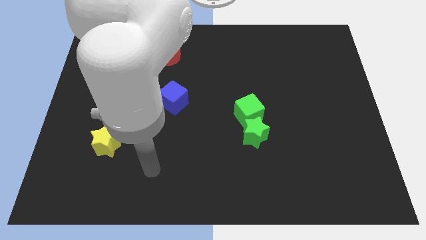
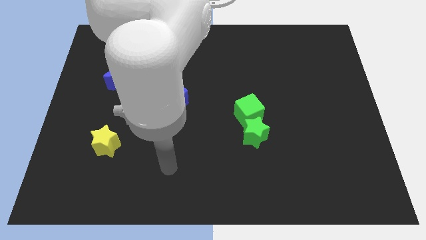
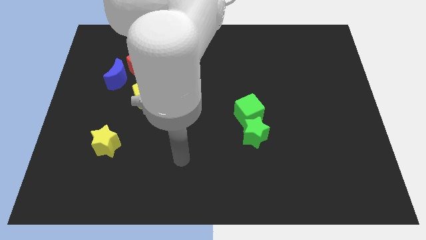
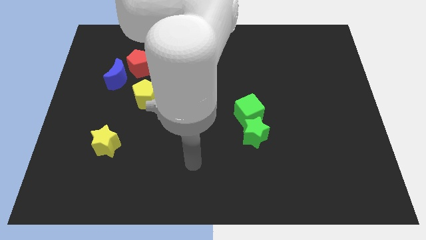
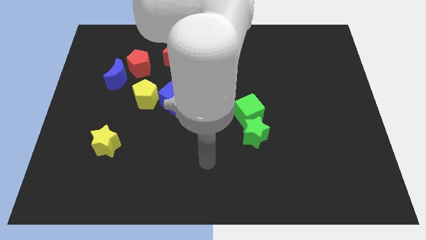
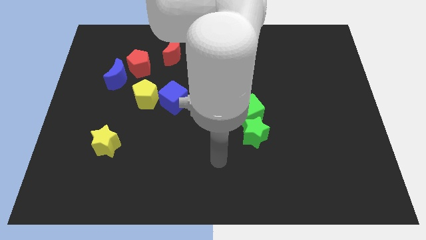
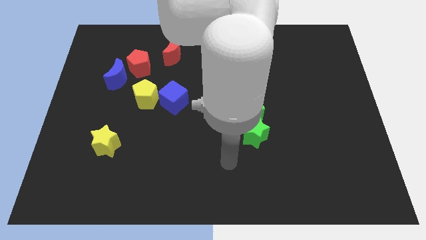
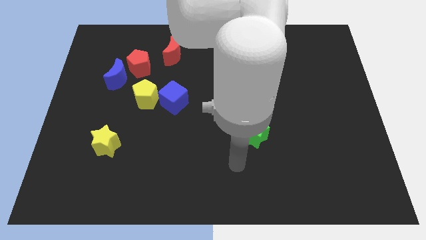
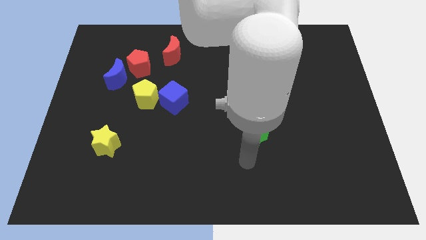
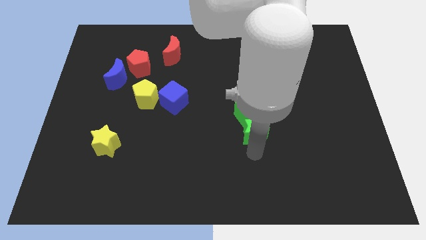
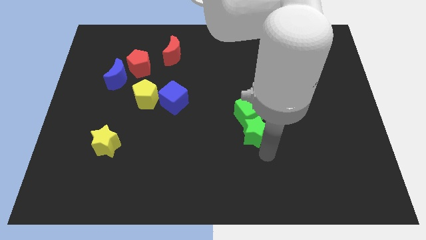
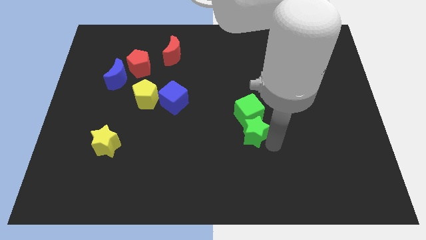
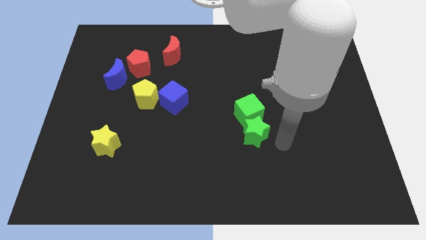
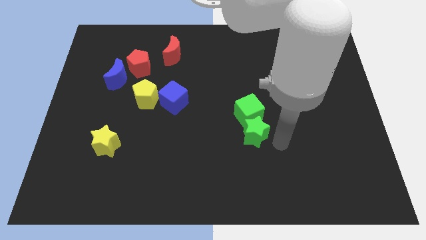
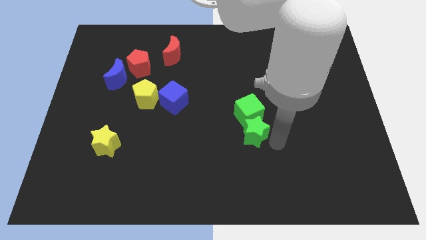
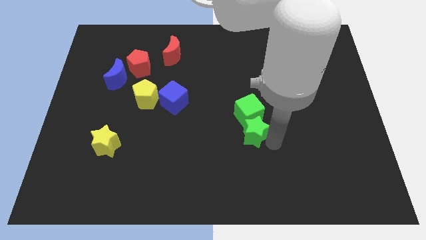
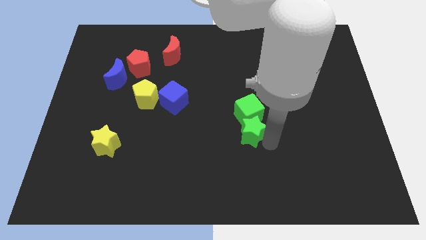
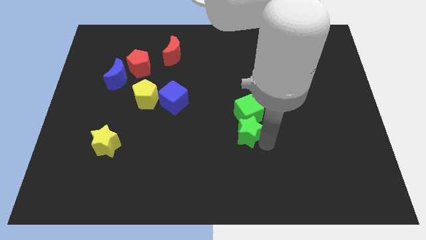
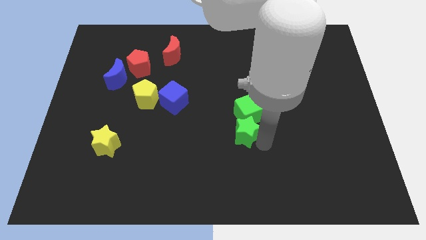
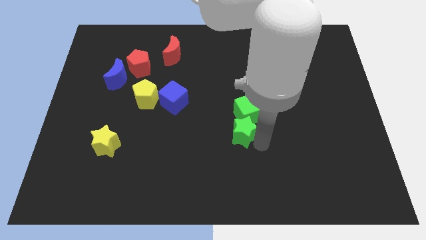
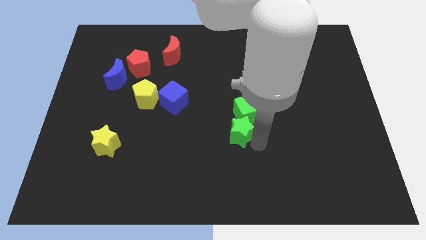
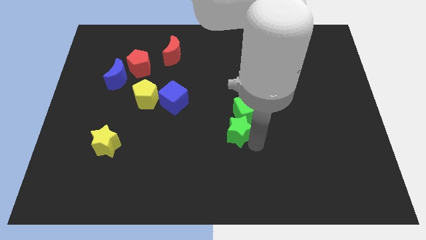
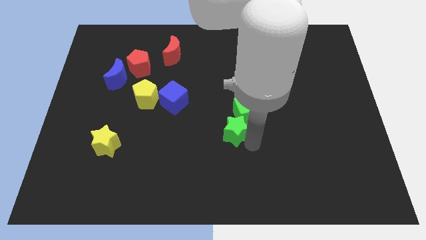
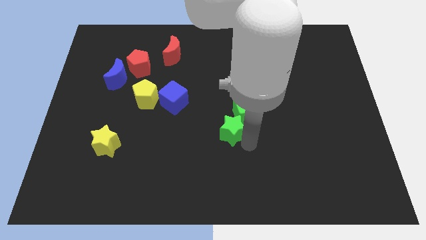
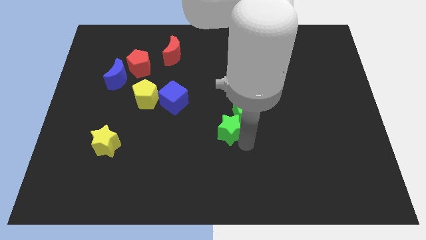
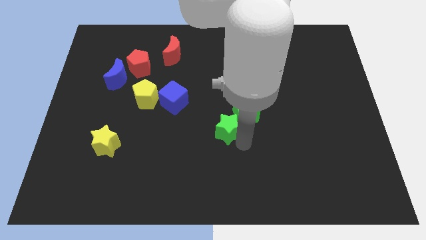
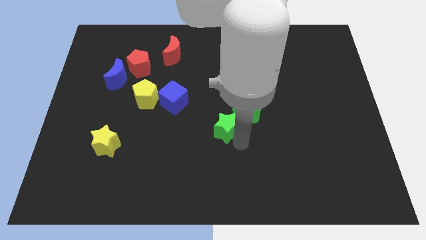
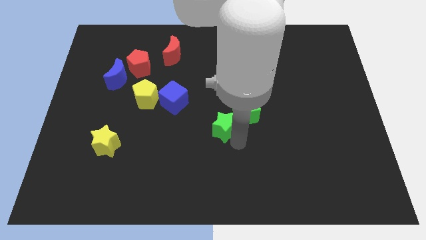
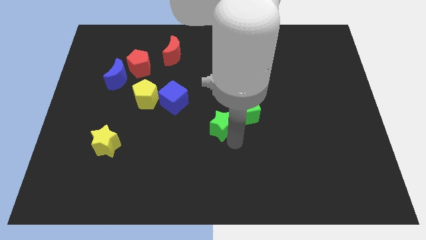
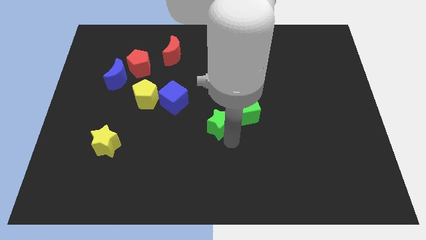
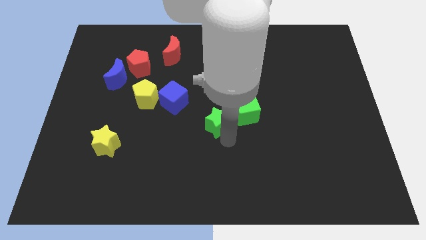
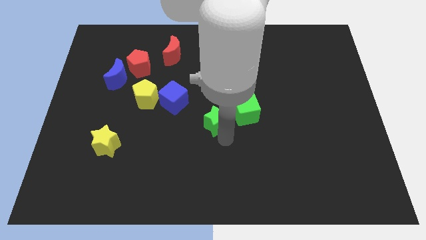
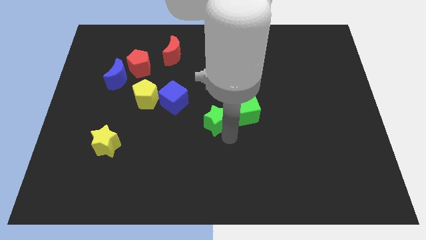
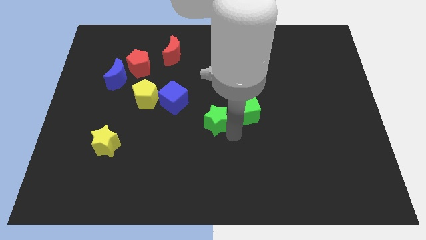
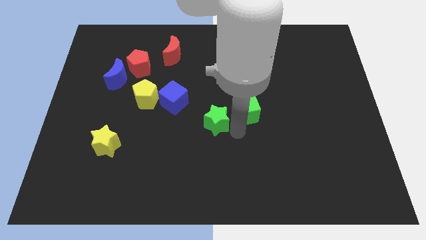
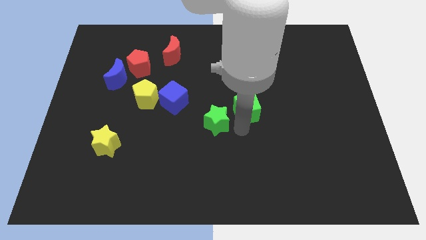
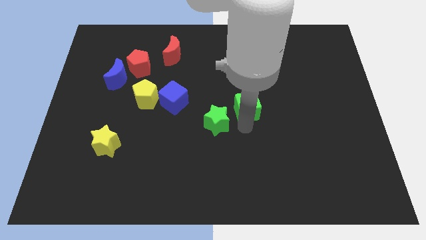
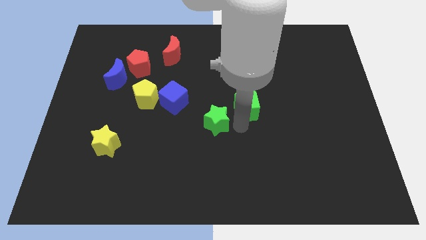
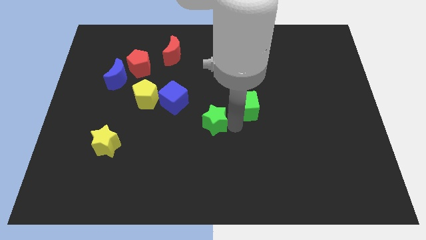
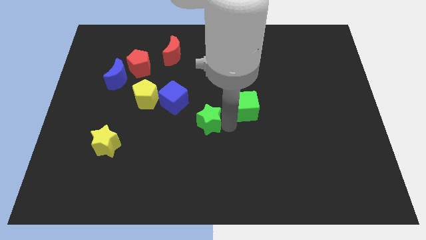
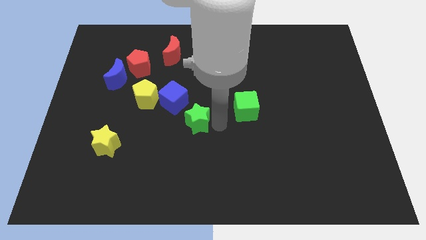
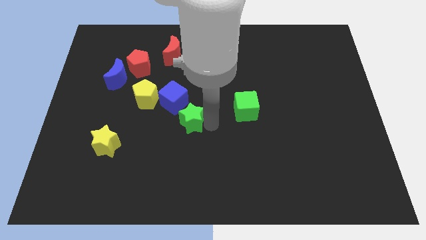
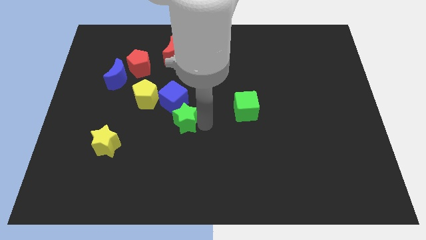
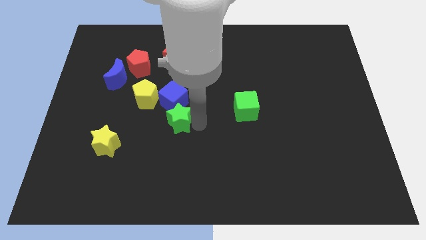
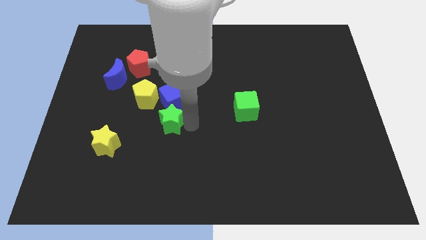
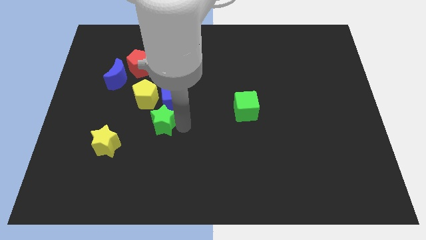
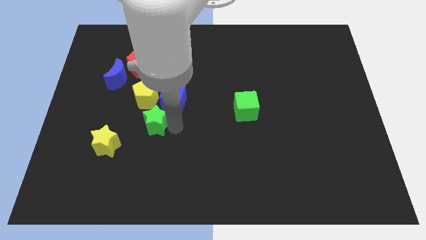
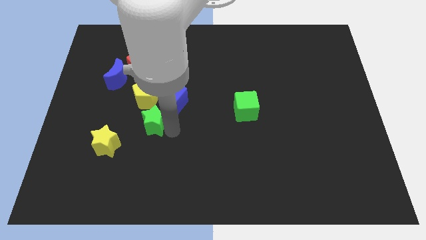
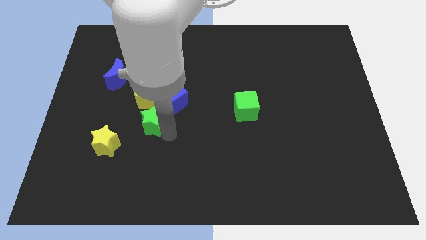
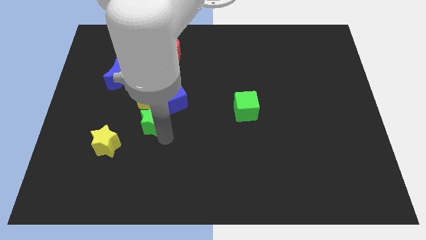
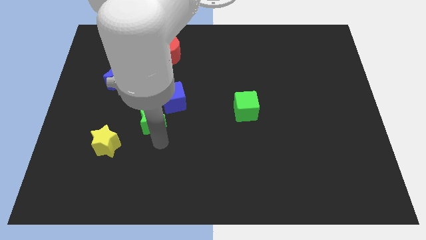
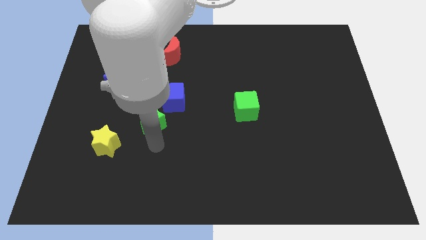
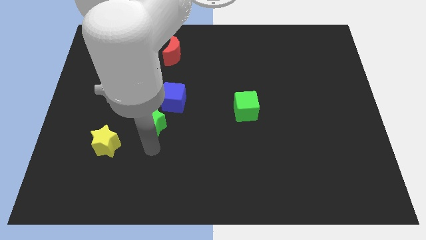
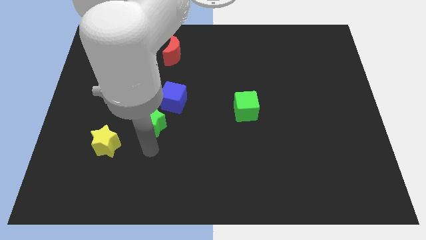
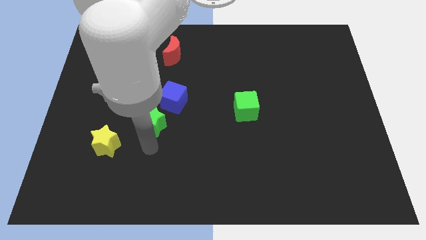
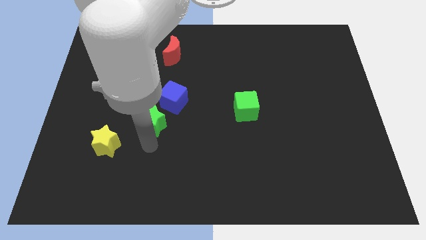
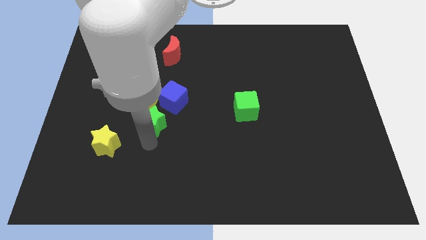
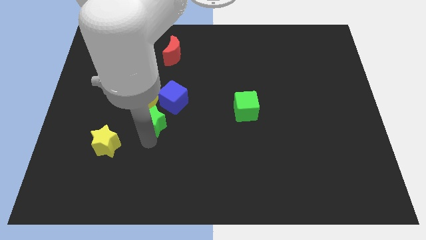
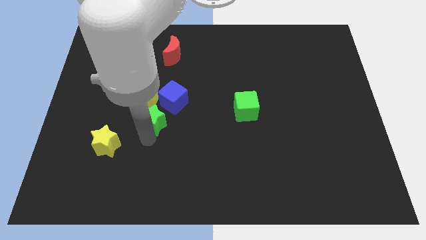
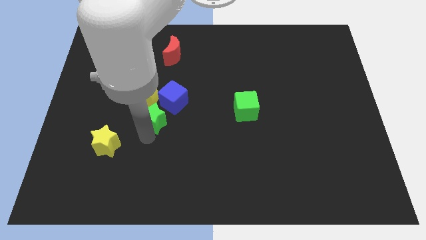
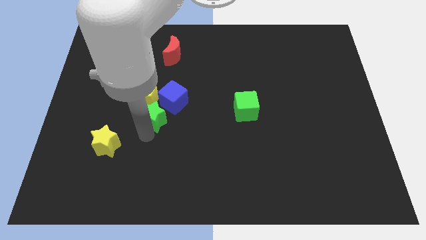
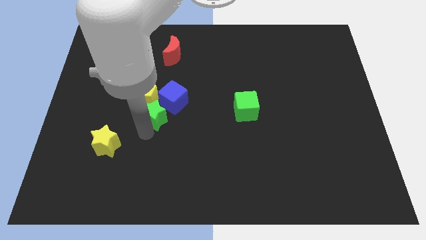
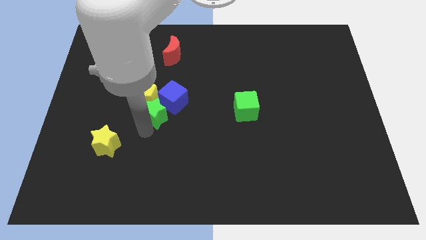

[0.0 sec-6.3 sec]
put the green star close to the yellow pentagon

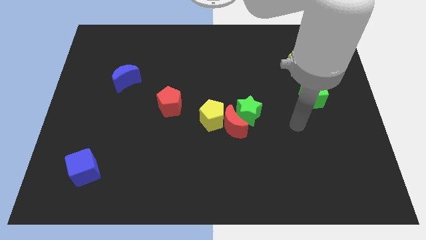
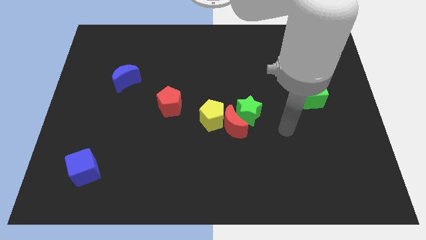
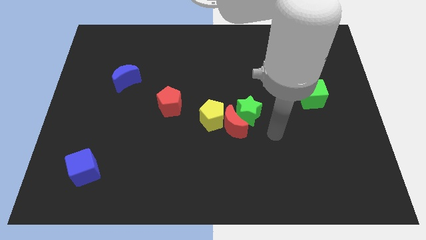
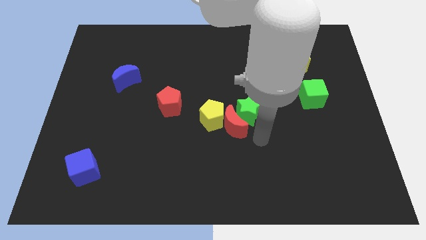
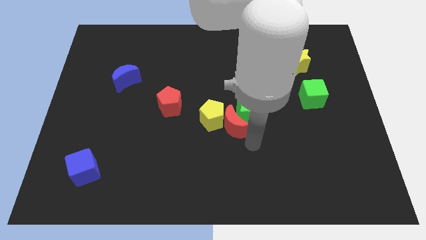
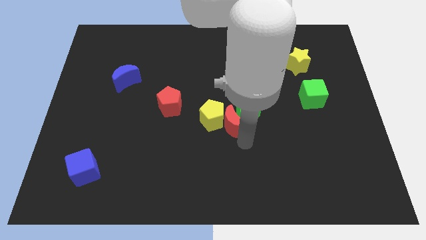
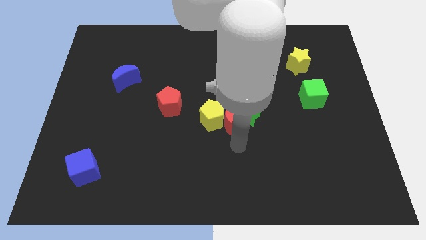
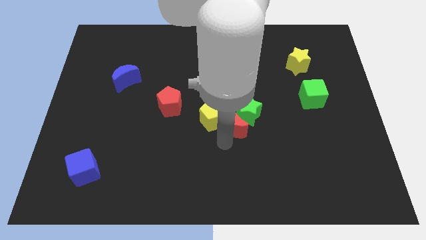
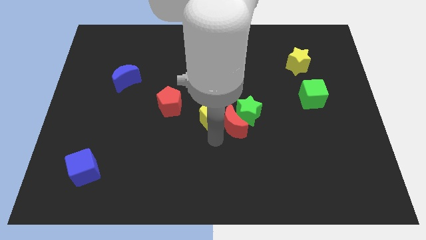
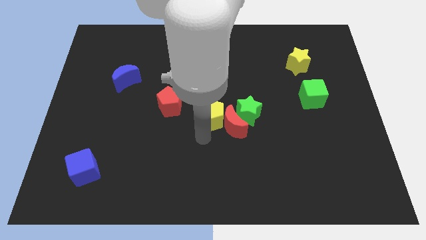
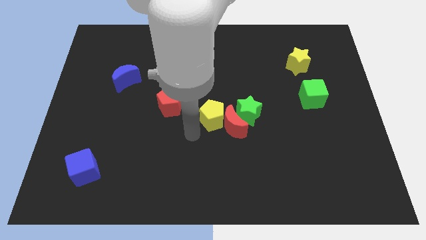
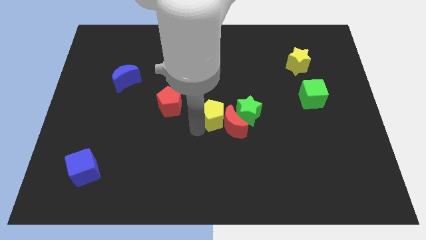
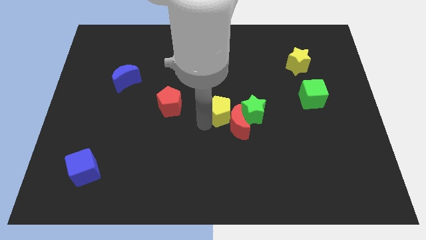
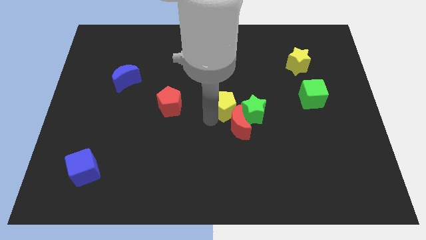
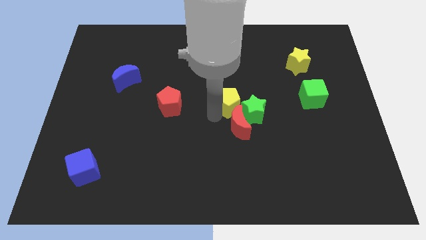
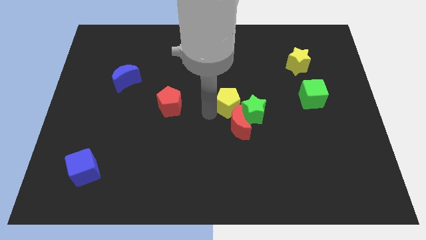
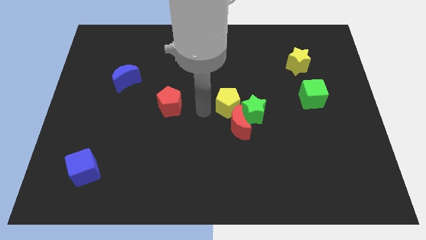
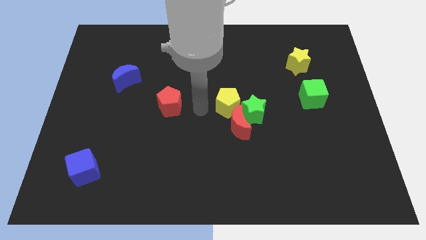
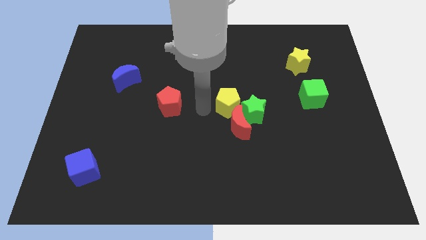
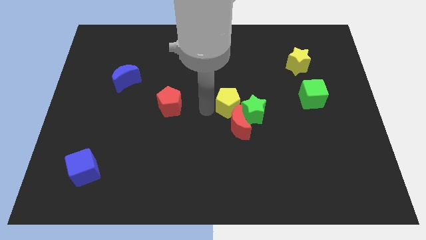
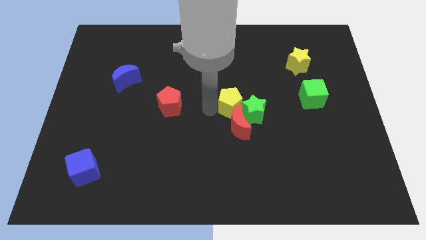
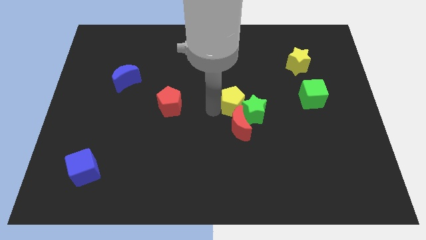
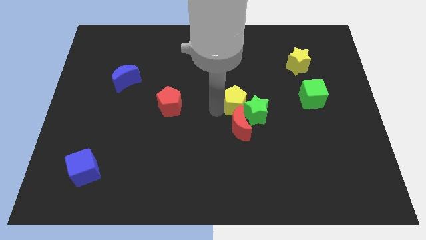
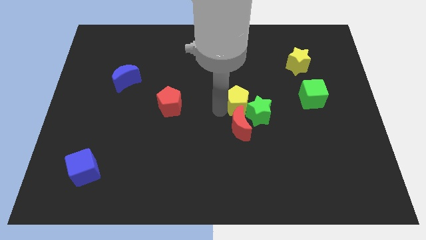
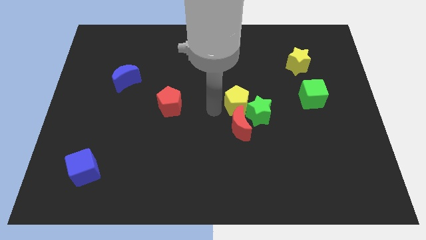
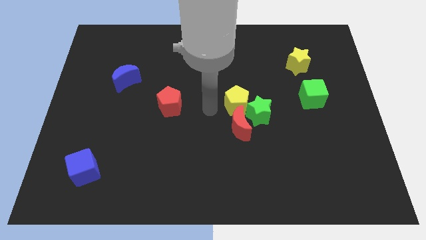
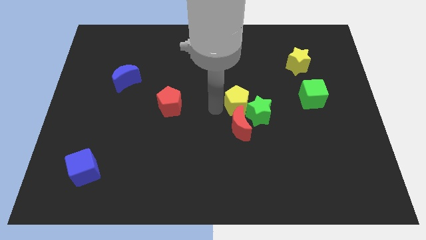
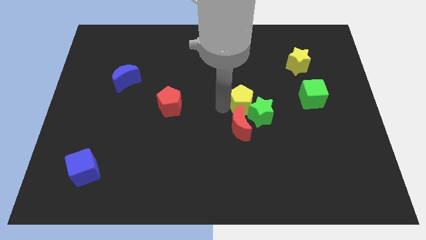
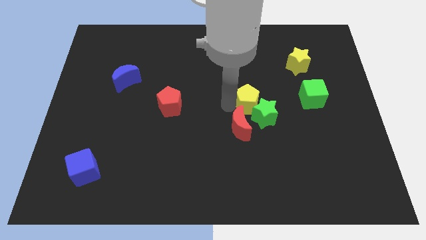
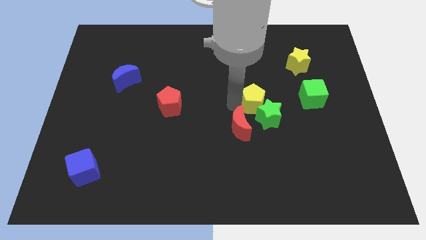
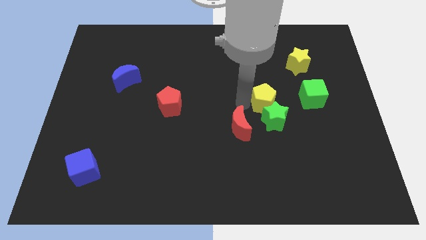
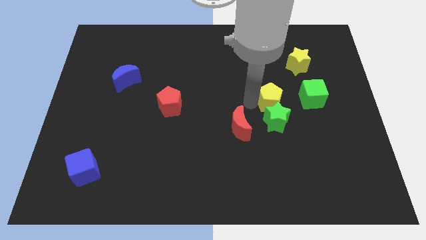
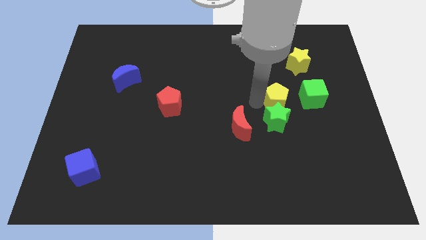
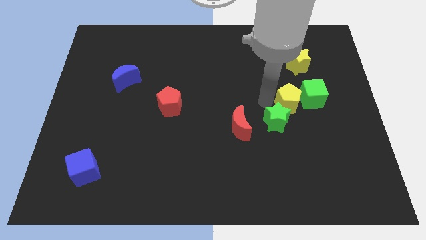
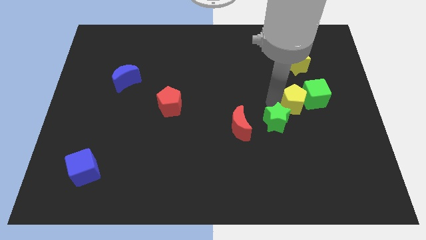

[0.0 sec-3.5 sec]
put the yellow pentagon close to the green cube
